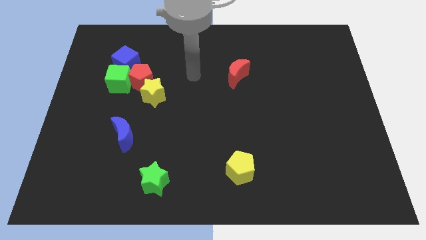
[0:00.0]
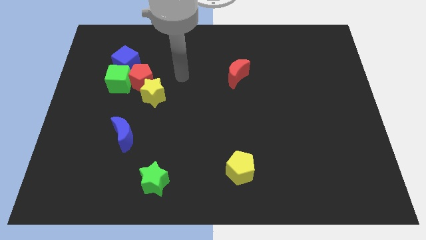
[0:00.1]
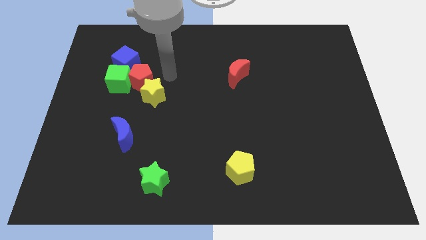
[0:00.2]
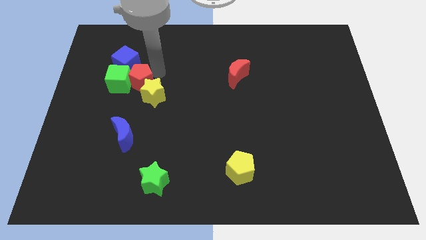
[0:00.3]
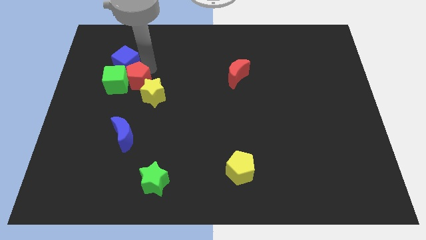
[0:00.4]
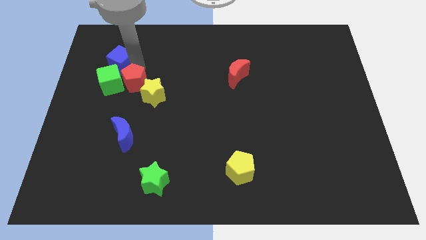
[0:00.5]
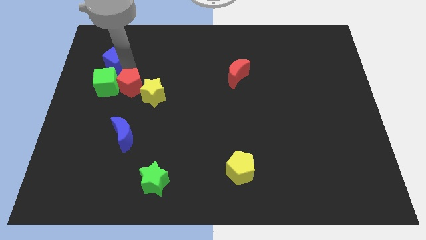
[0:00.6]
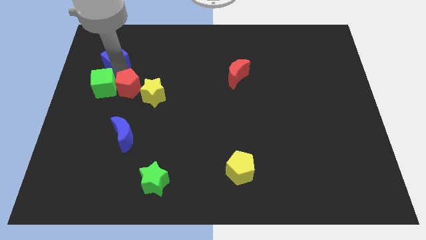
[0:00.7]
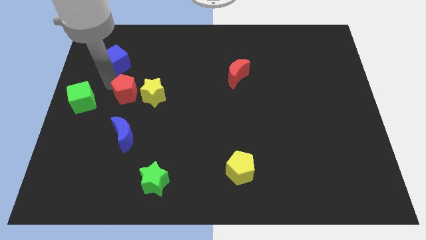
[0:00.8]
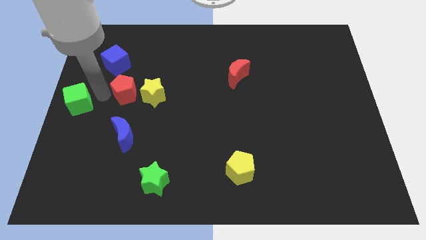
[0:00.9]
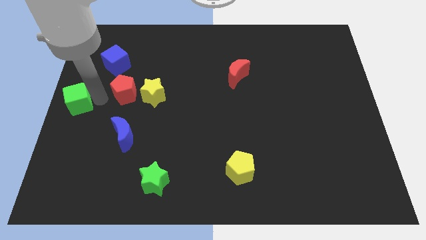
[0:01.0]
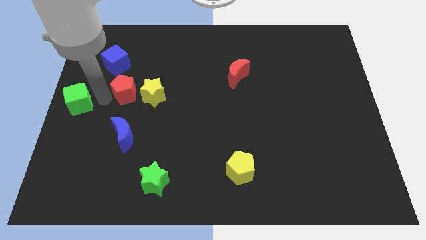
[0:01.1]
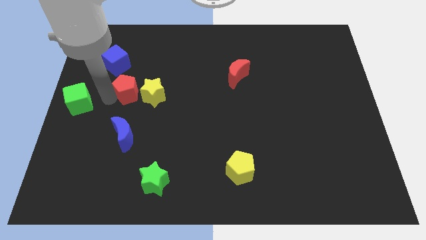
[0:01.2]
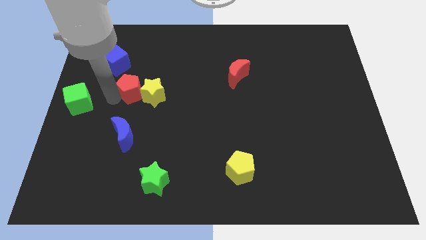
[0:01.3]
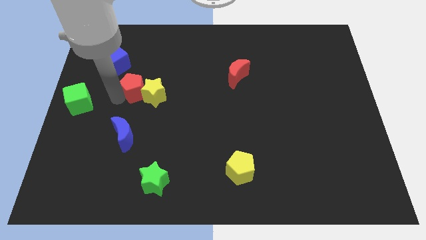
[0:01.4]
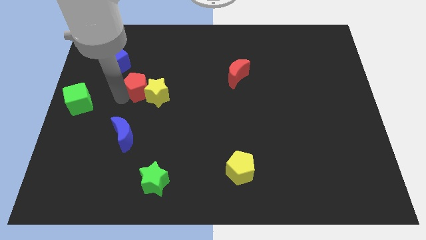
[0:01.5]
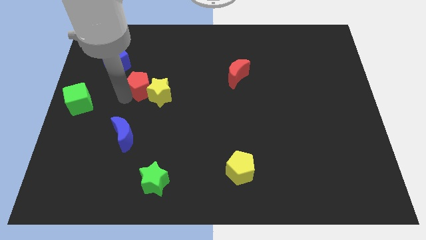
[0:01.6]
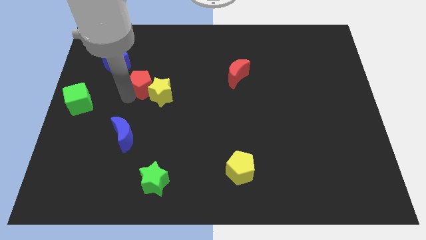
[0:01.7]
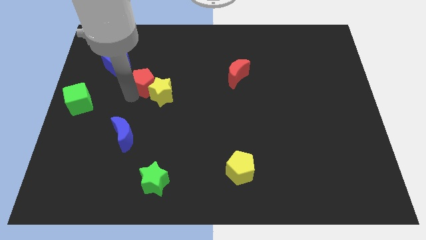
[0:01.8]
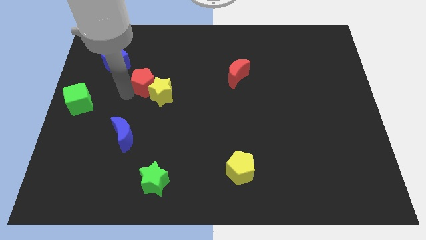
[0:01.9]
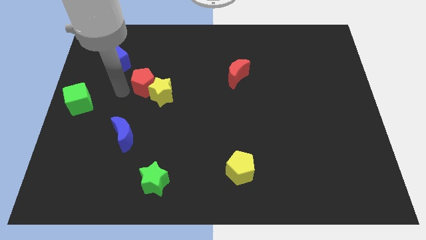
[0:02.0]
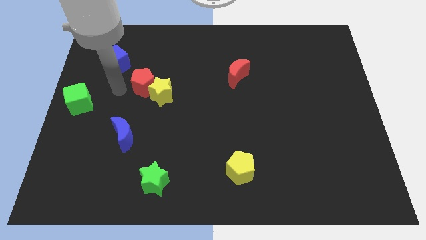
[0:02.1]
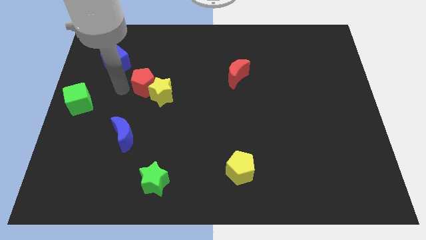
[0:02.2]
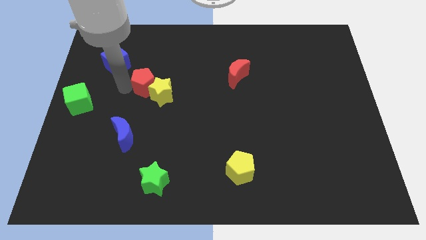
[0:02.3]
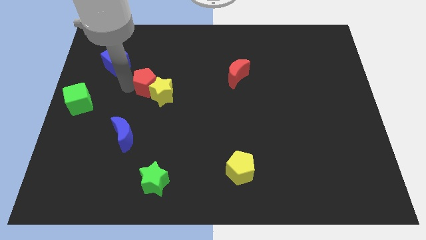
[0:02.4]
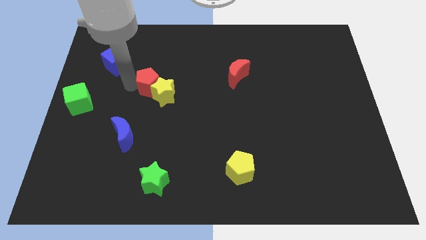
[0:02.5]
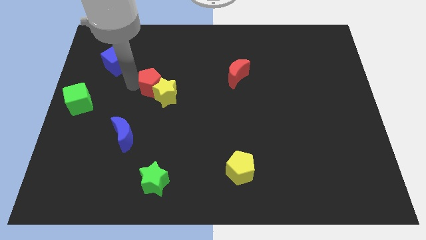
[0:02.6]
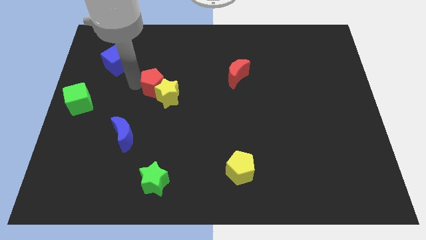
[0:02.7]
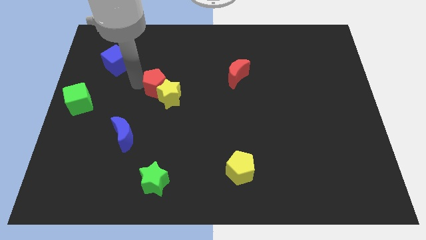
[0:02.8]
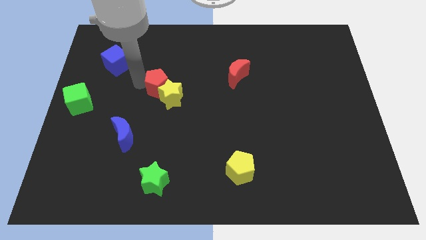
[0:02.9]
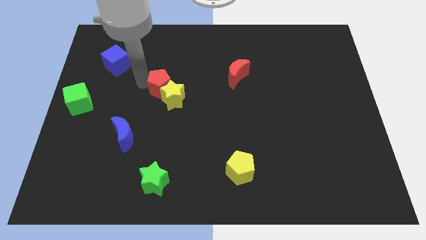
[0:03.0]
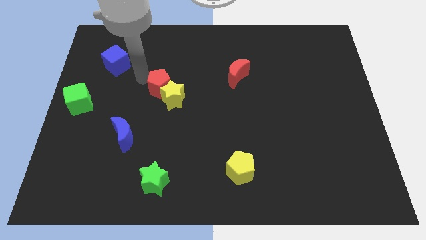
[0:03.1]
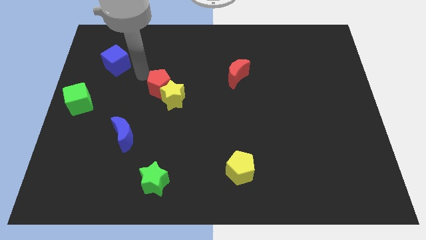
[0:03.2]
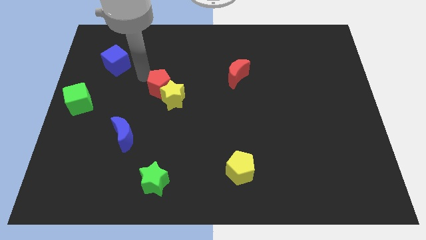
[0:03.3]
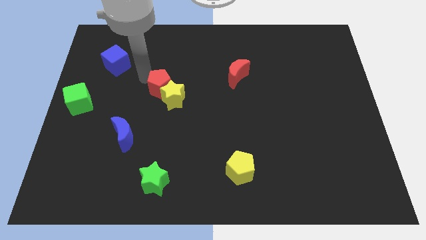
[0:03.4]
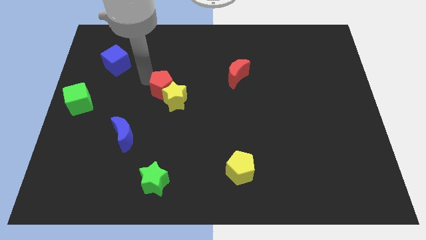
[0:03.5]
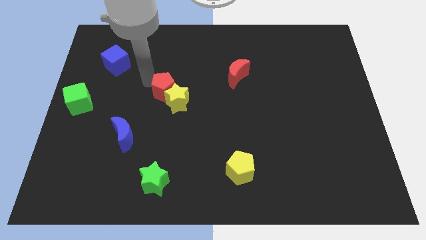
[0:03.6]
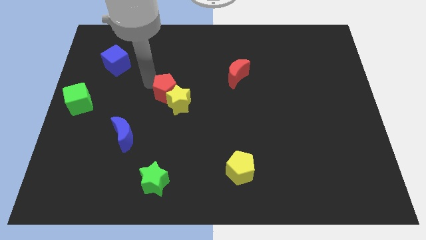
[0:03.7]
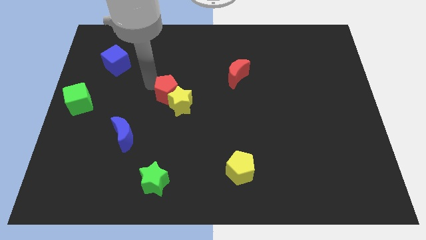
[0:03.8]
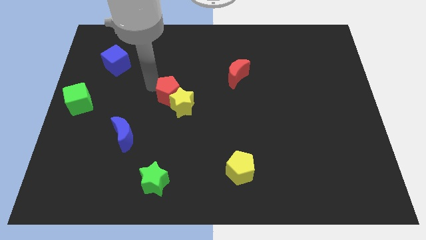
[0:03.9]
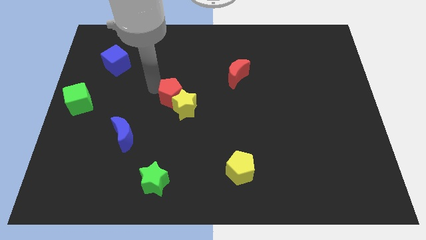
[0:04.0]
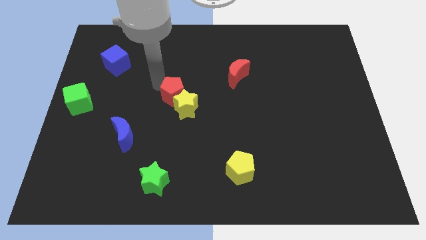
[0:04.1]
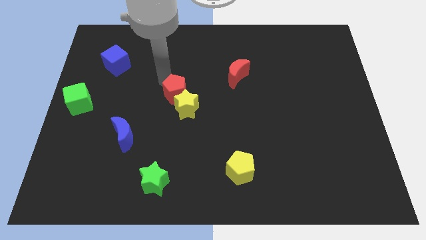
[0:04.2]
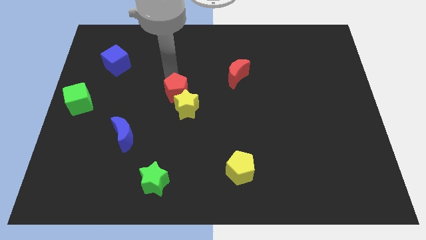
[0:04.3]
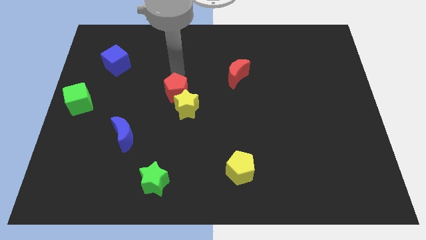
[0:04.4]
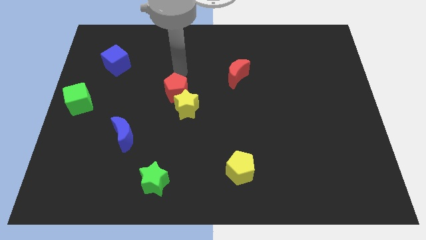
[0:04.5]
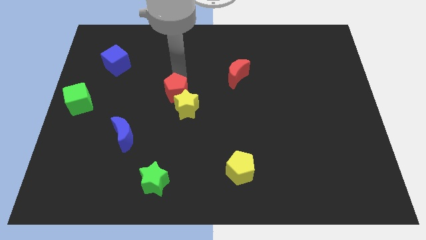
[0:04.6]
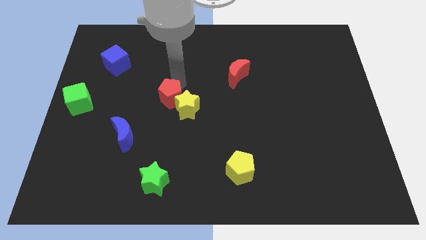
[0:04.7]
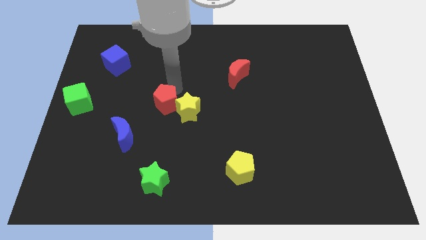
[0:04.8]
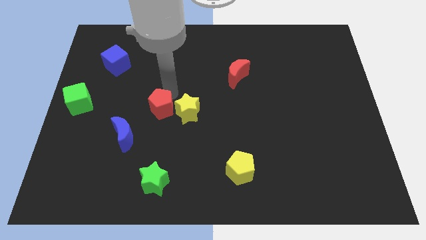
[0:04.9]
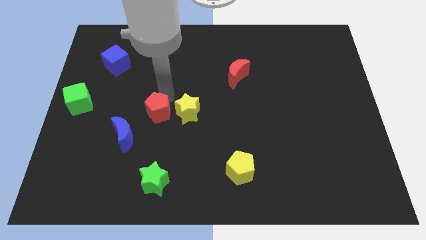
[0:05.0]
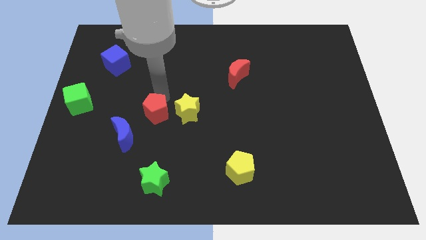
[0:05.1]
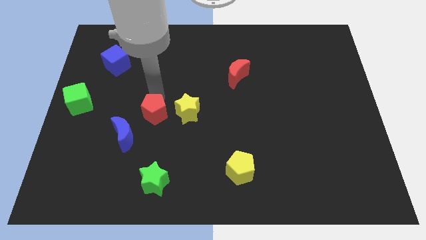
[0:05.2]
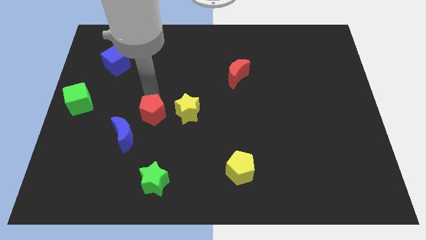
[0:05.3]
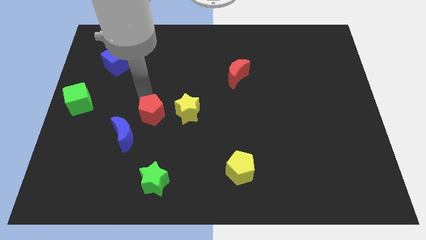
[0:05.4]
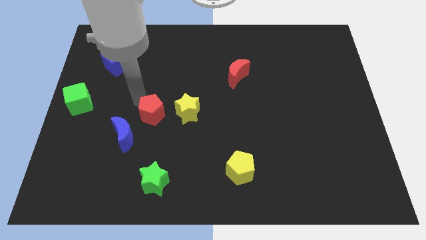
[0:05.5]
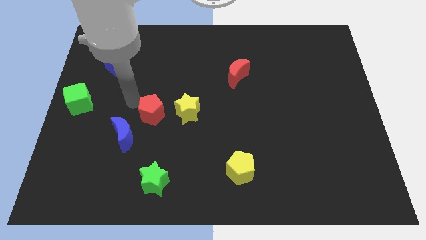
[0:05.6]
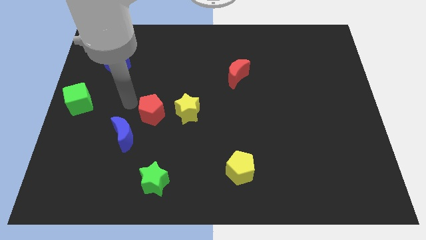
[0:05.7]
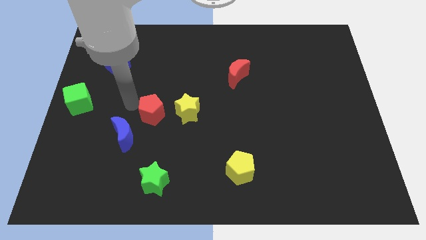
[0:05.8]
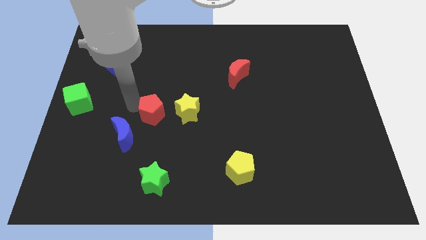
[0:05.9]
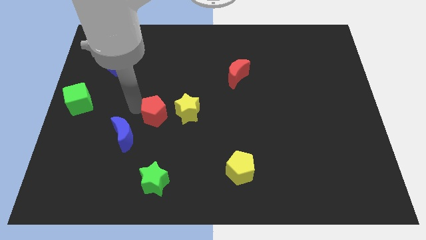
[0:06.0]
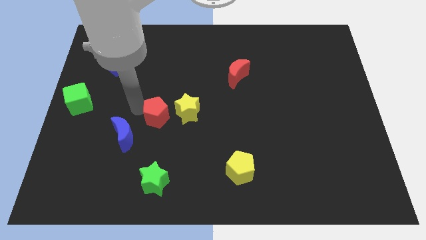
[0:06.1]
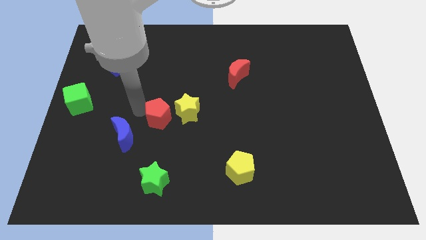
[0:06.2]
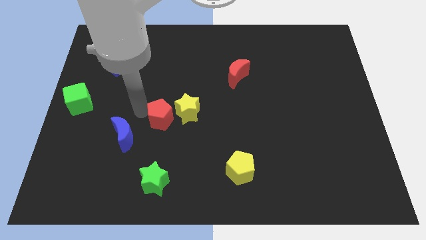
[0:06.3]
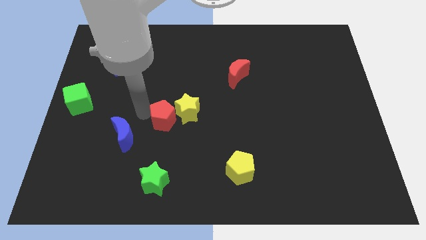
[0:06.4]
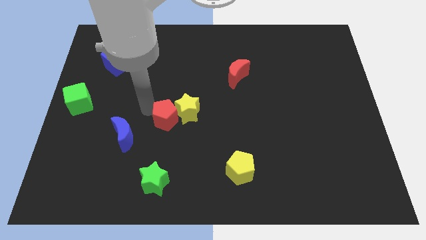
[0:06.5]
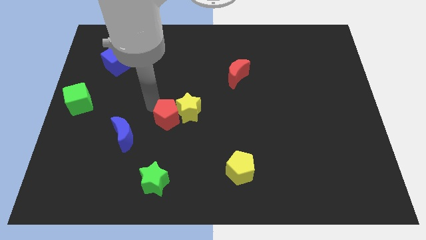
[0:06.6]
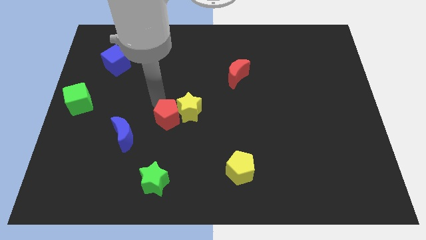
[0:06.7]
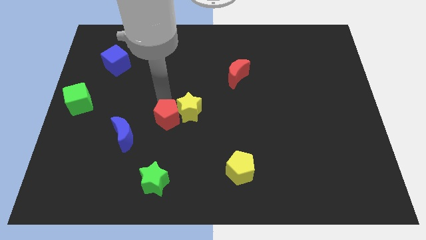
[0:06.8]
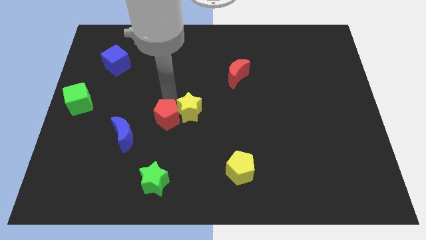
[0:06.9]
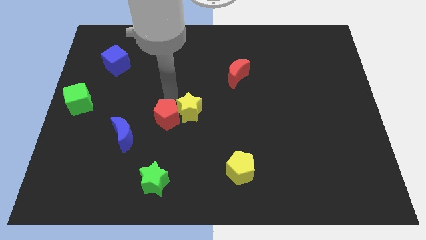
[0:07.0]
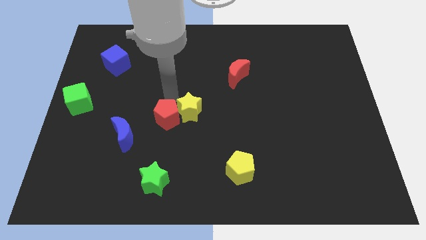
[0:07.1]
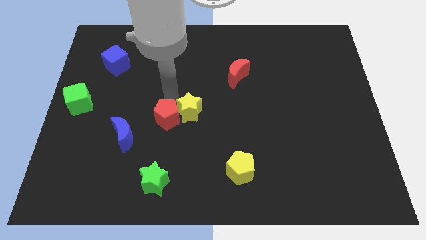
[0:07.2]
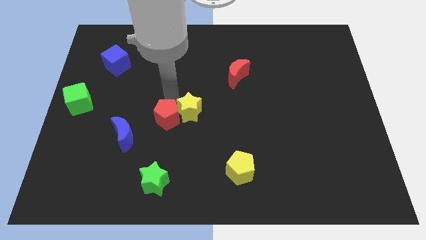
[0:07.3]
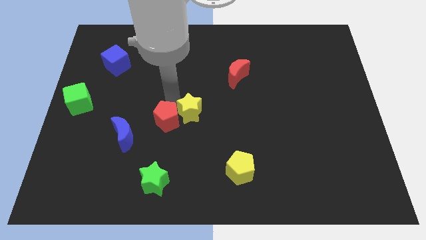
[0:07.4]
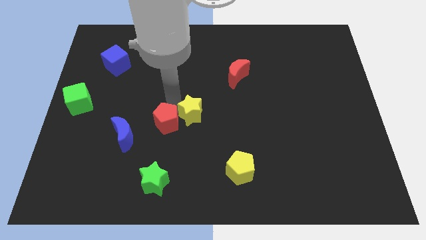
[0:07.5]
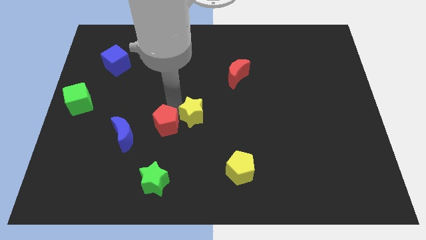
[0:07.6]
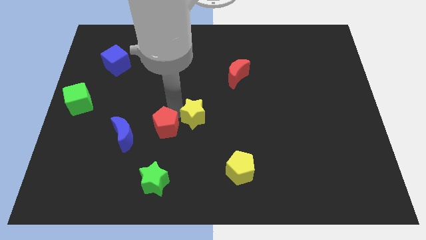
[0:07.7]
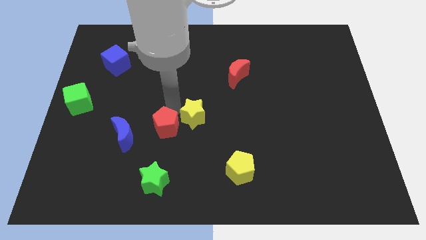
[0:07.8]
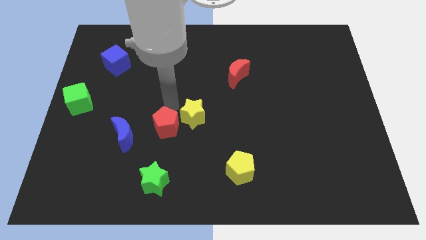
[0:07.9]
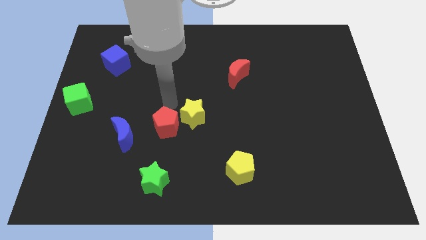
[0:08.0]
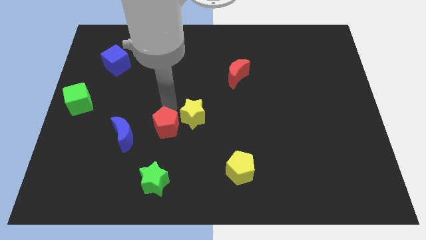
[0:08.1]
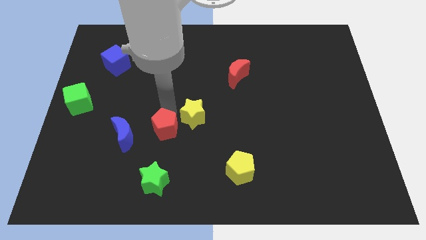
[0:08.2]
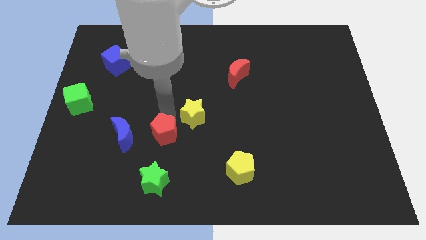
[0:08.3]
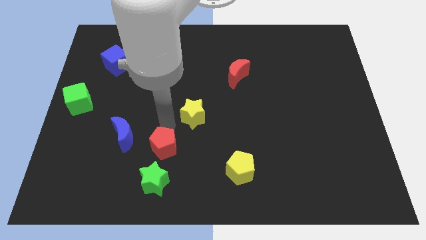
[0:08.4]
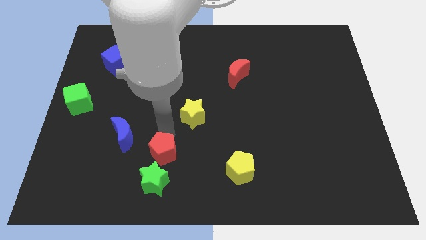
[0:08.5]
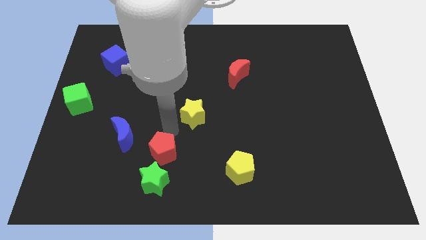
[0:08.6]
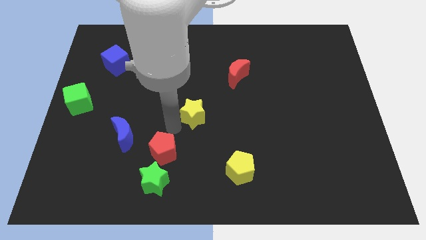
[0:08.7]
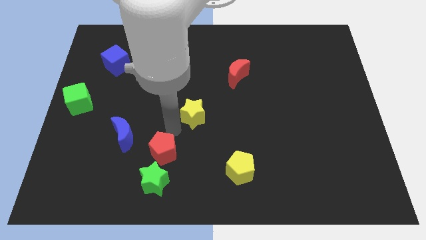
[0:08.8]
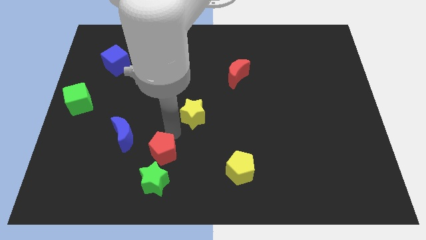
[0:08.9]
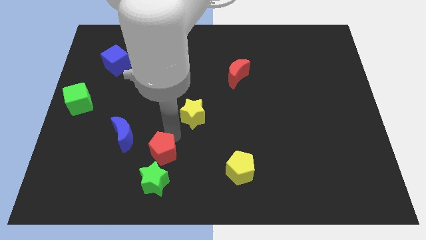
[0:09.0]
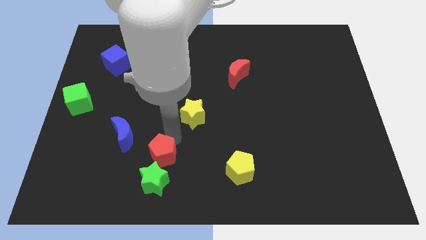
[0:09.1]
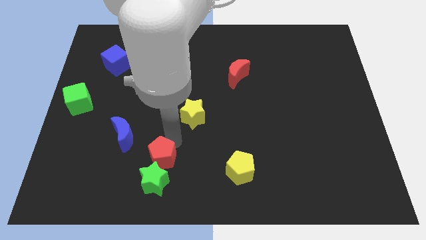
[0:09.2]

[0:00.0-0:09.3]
push the red pentagon close to the green star
